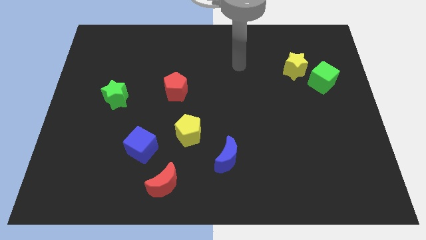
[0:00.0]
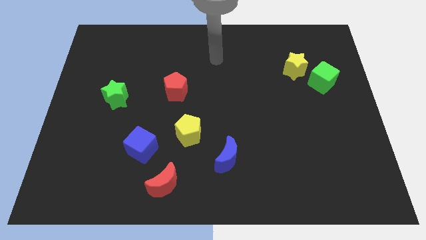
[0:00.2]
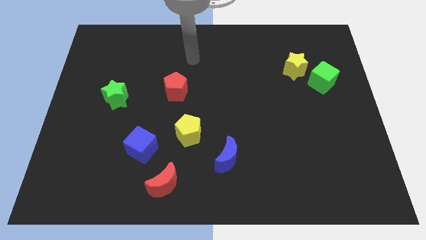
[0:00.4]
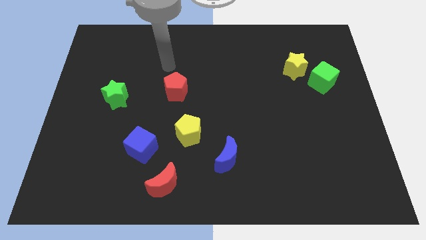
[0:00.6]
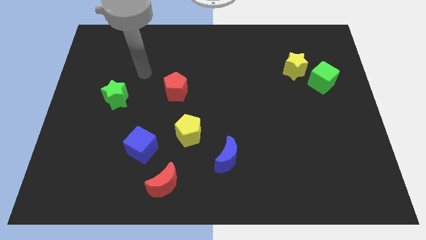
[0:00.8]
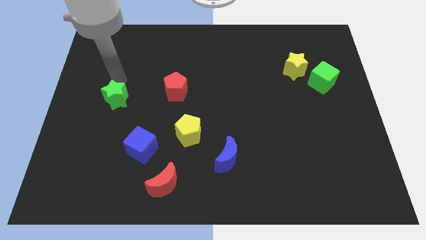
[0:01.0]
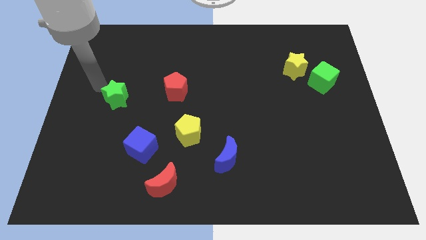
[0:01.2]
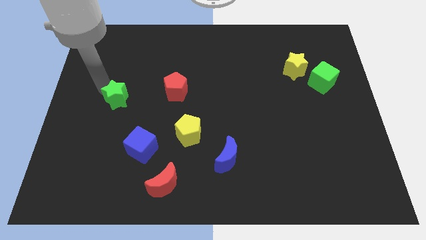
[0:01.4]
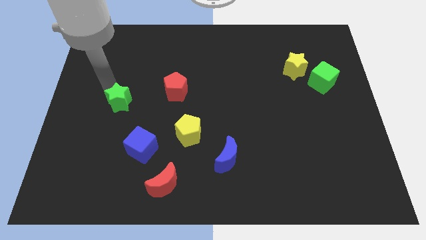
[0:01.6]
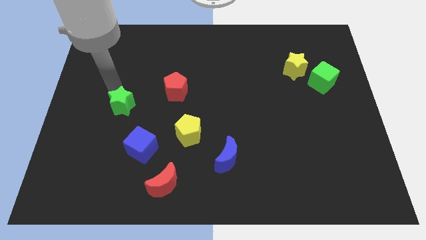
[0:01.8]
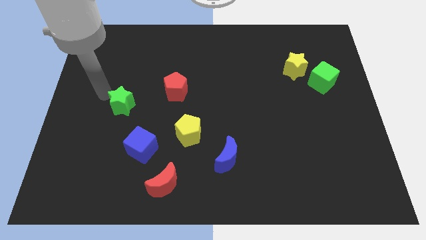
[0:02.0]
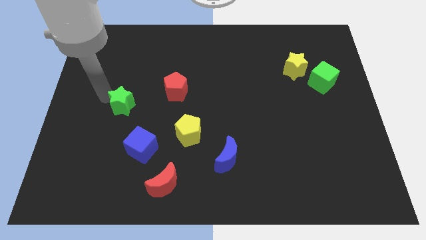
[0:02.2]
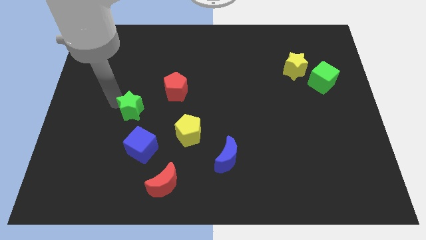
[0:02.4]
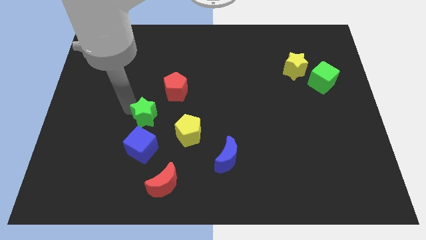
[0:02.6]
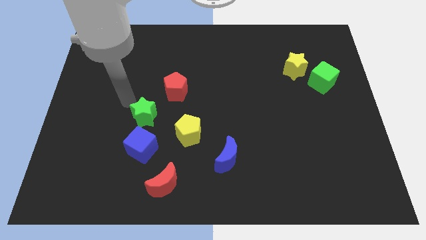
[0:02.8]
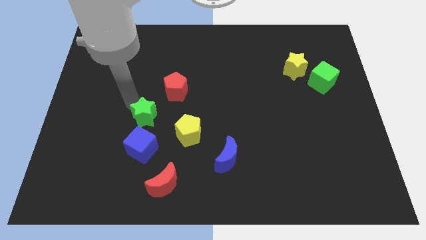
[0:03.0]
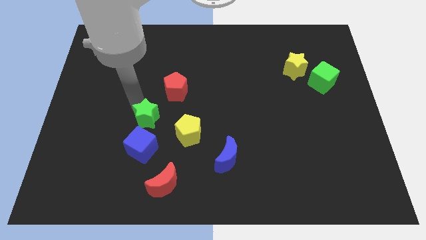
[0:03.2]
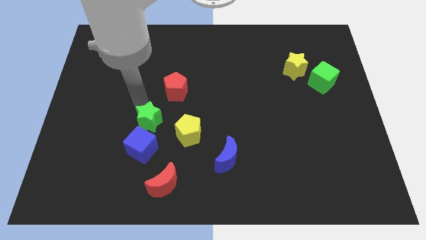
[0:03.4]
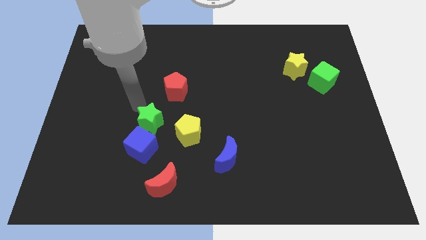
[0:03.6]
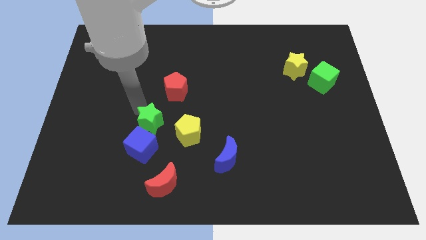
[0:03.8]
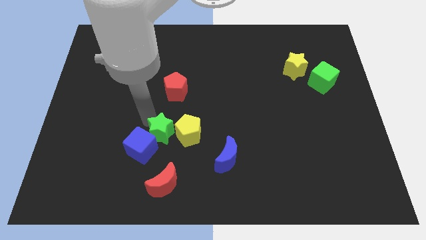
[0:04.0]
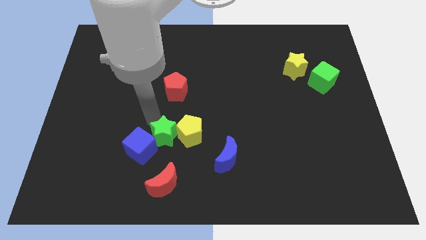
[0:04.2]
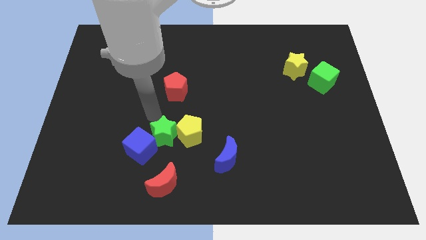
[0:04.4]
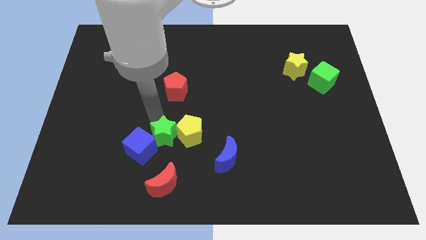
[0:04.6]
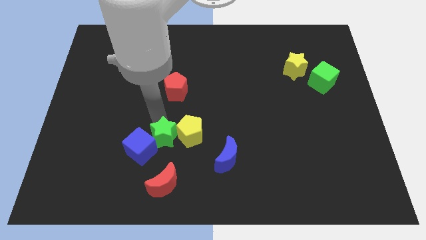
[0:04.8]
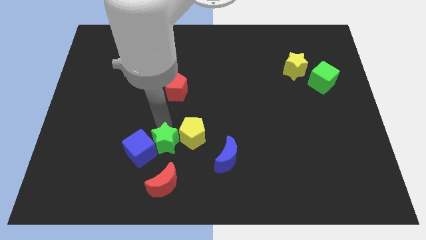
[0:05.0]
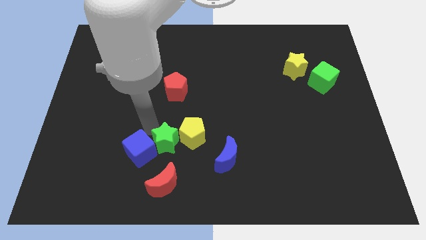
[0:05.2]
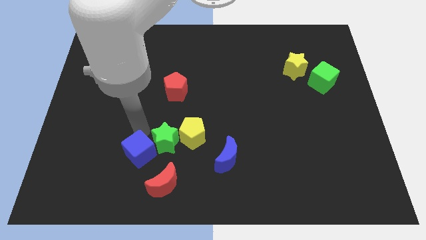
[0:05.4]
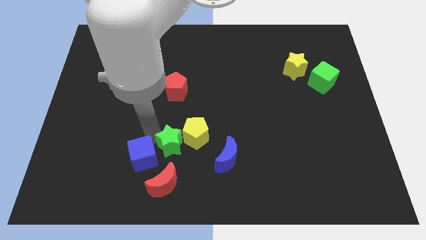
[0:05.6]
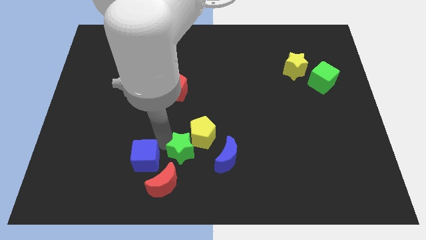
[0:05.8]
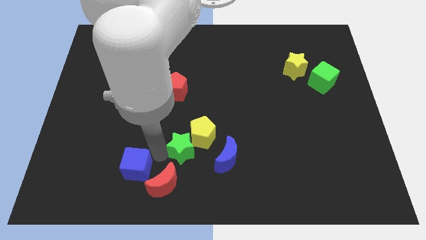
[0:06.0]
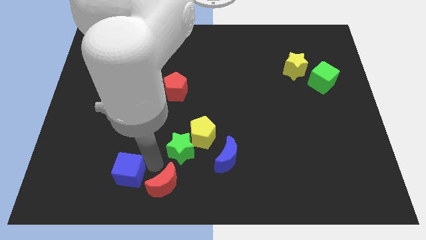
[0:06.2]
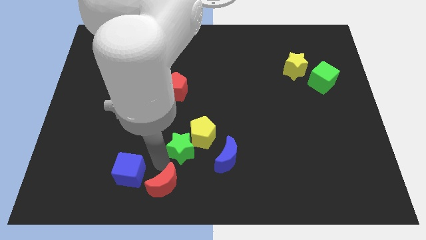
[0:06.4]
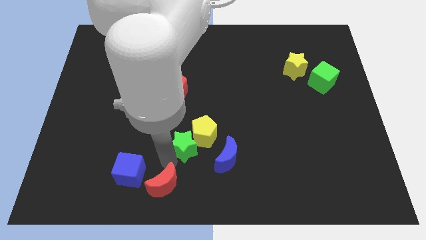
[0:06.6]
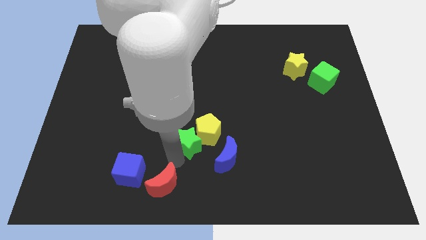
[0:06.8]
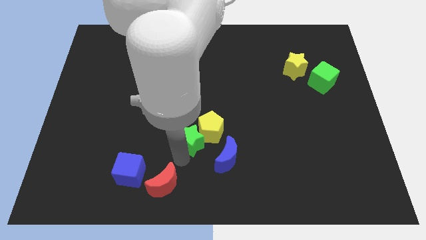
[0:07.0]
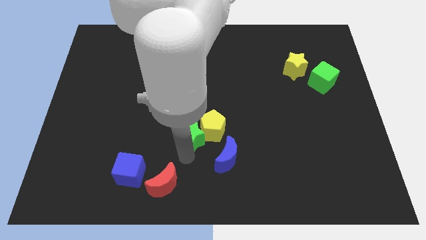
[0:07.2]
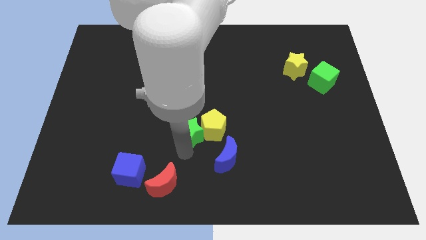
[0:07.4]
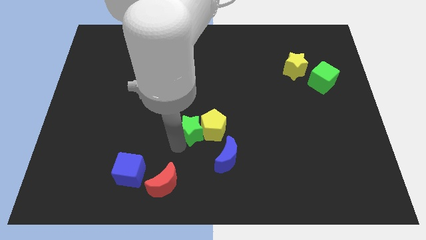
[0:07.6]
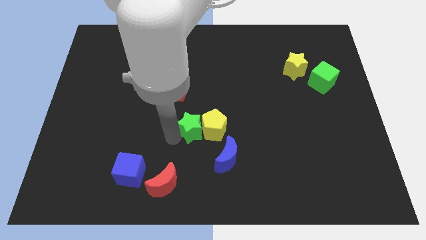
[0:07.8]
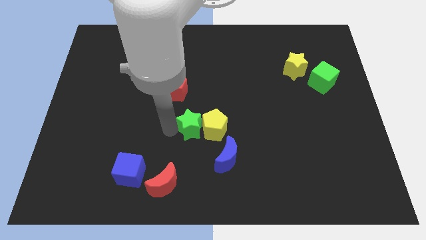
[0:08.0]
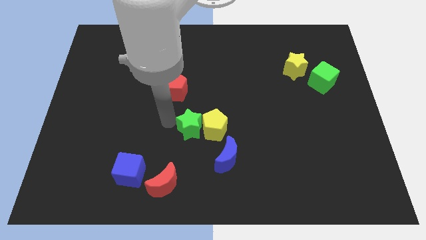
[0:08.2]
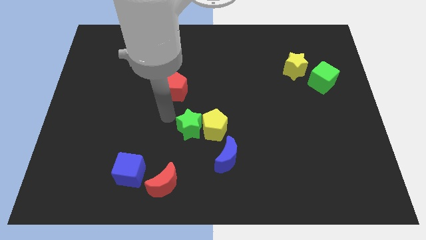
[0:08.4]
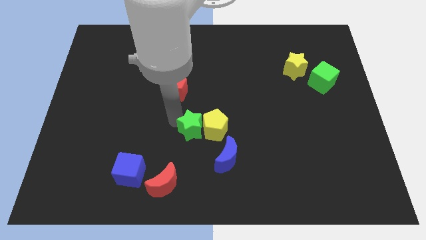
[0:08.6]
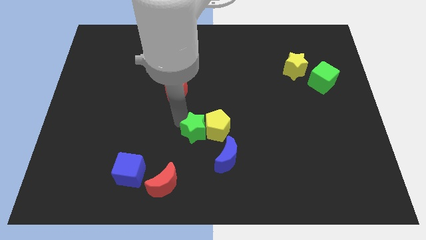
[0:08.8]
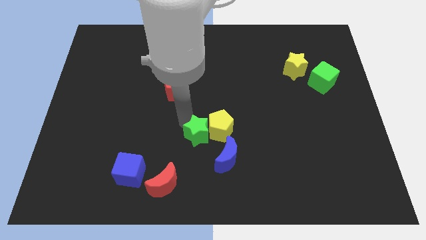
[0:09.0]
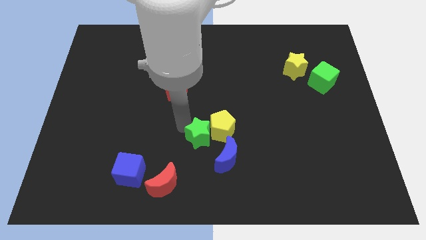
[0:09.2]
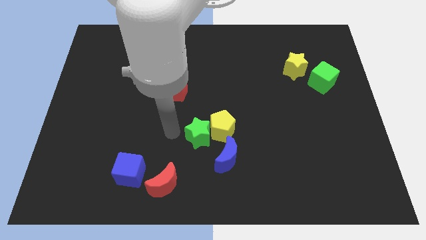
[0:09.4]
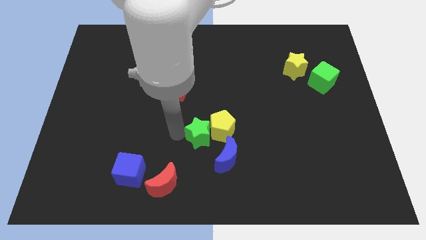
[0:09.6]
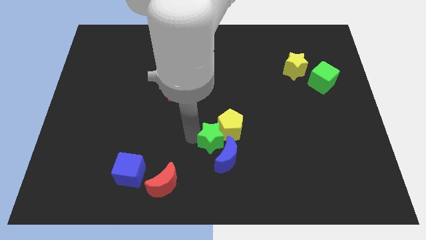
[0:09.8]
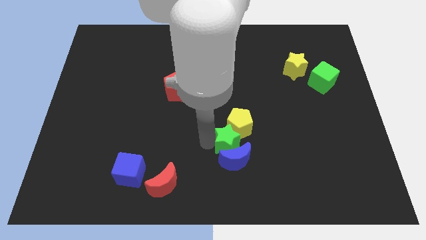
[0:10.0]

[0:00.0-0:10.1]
put the green star to the top right of the blue moon

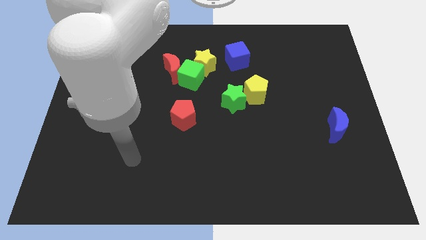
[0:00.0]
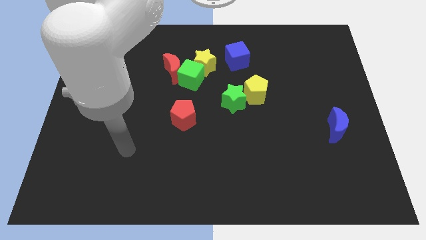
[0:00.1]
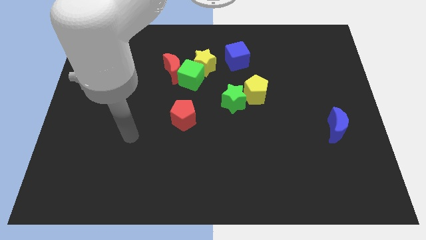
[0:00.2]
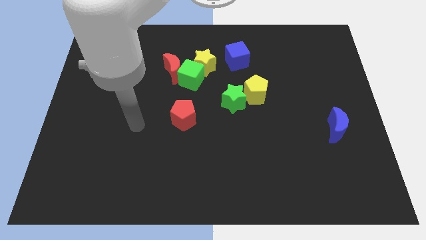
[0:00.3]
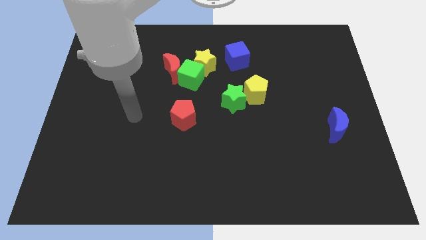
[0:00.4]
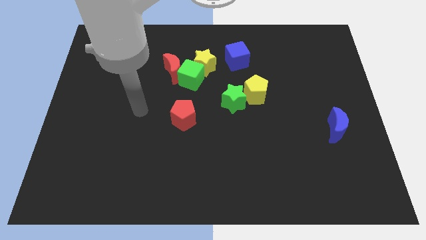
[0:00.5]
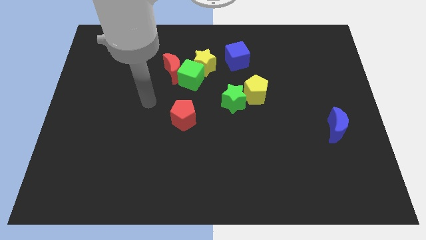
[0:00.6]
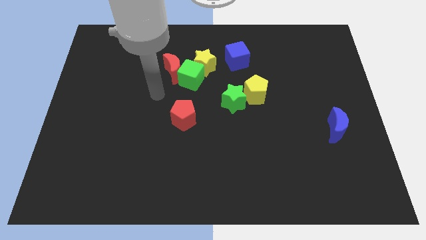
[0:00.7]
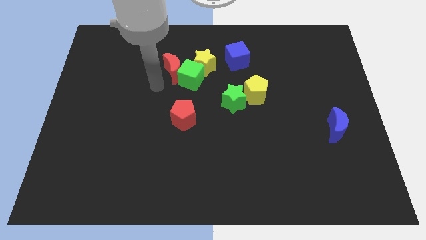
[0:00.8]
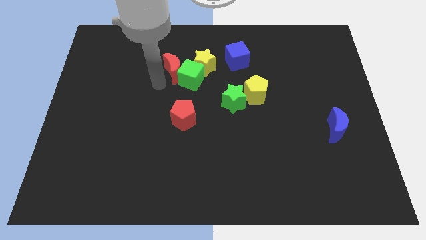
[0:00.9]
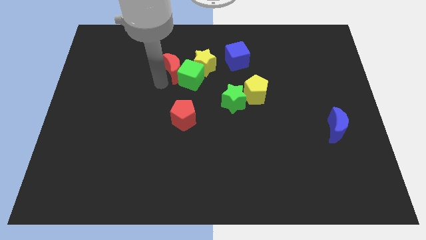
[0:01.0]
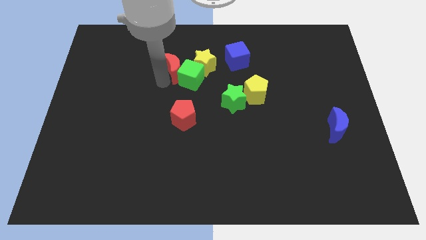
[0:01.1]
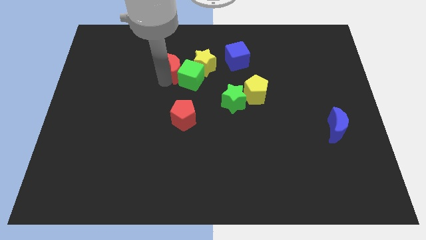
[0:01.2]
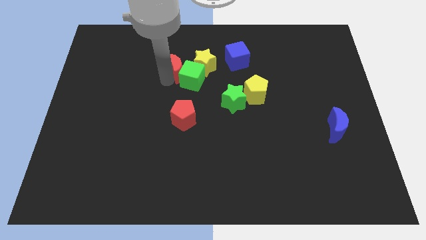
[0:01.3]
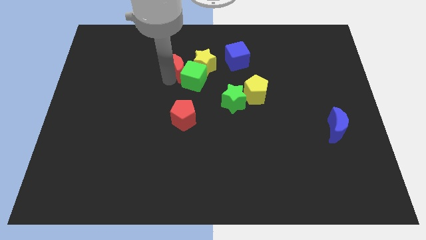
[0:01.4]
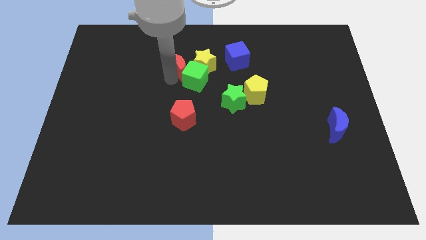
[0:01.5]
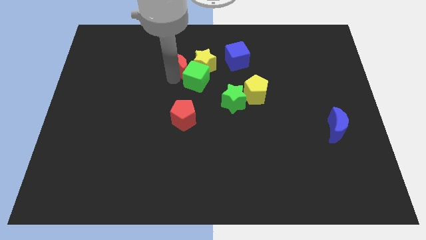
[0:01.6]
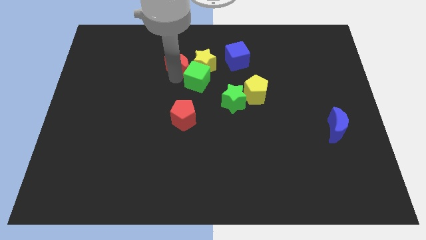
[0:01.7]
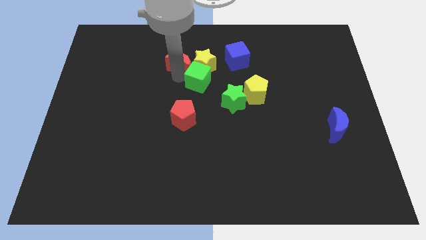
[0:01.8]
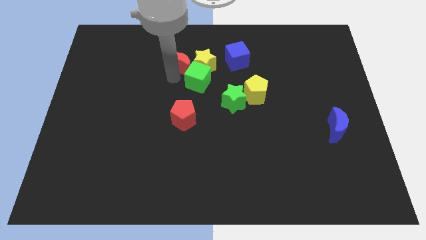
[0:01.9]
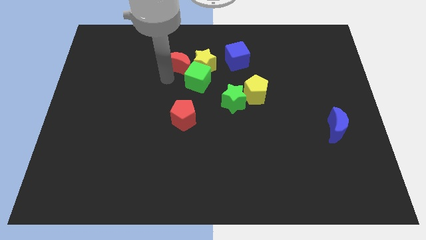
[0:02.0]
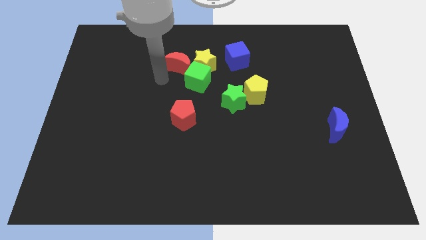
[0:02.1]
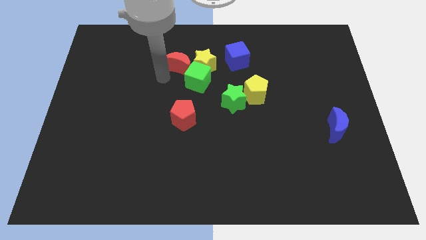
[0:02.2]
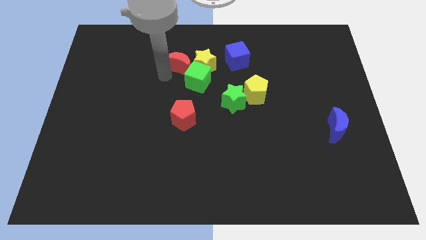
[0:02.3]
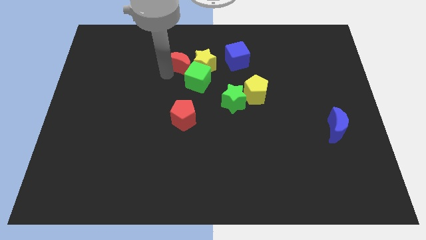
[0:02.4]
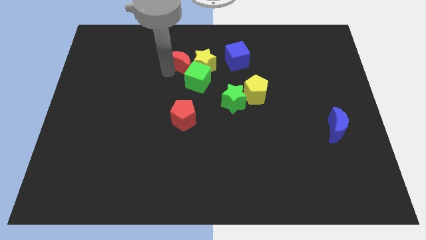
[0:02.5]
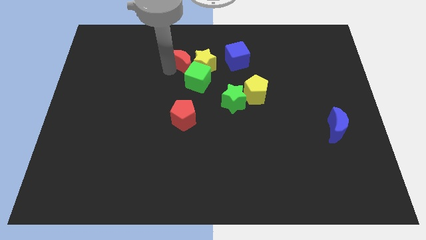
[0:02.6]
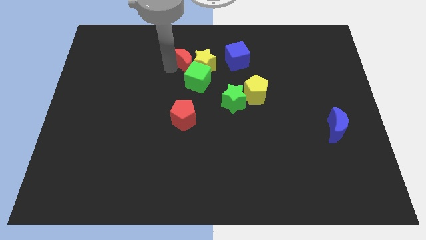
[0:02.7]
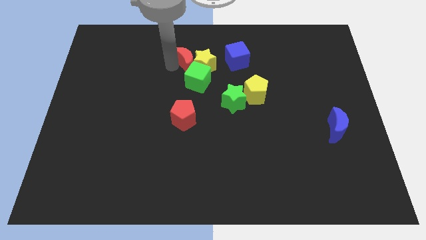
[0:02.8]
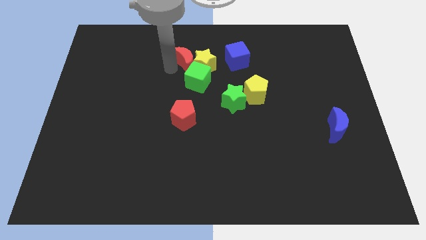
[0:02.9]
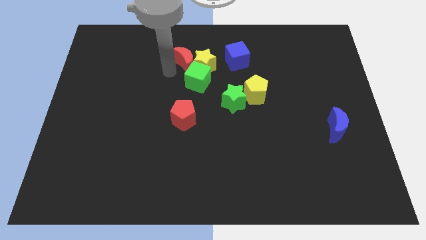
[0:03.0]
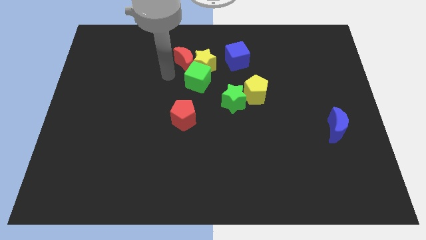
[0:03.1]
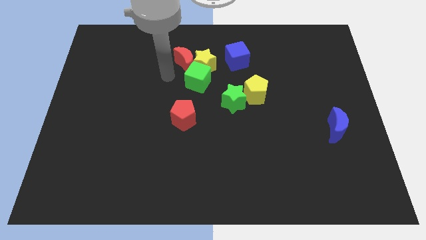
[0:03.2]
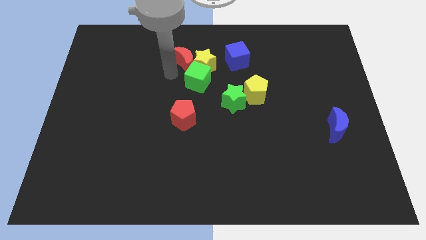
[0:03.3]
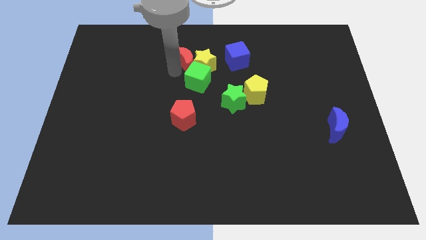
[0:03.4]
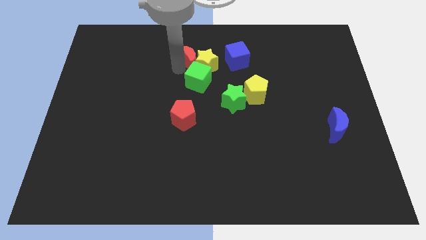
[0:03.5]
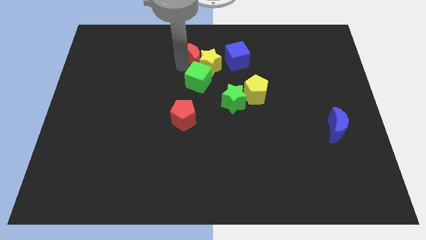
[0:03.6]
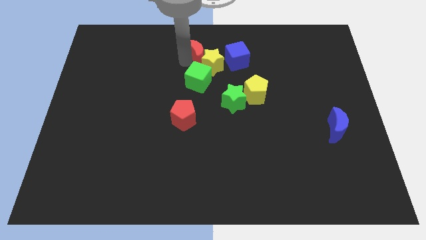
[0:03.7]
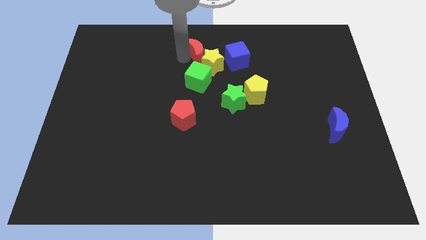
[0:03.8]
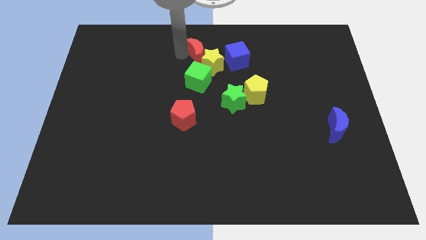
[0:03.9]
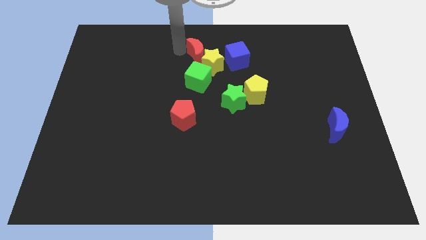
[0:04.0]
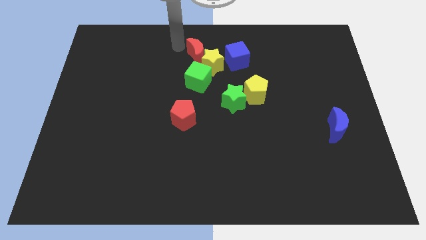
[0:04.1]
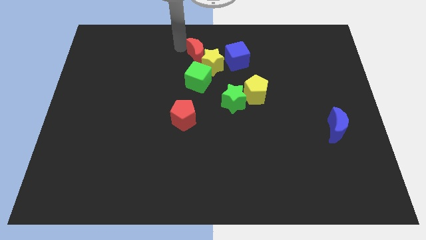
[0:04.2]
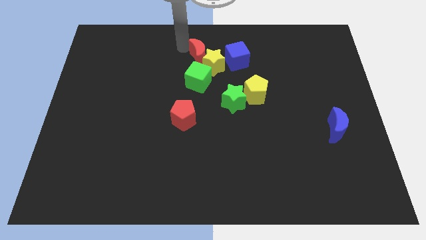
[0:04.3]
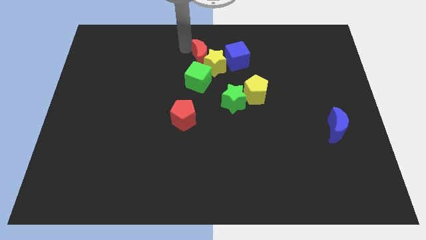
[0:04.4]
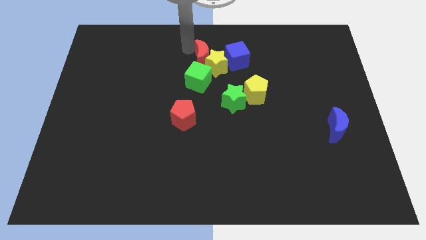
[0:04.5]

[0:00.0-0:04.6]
push the red moon to the top right side of the green cube
